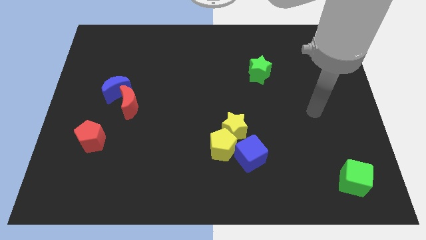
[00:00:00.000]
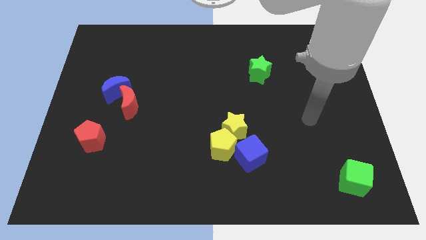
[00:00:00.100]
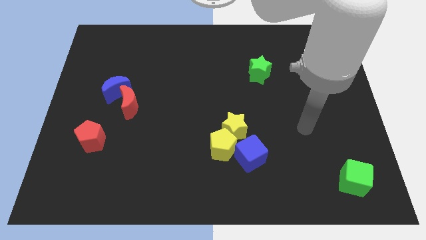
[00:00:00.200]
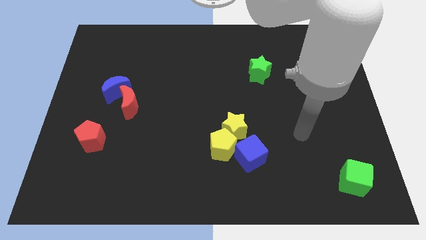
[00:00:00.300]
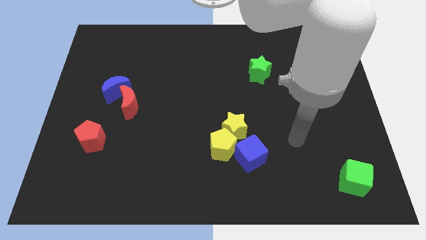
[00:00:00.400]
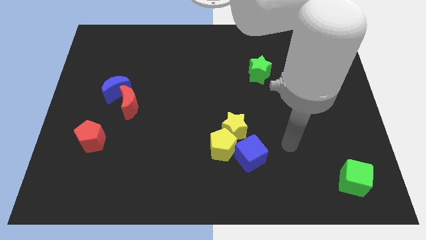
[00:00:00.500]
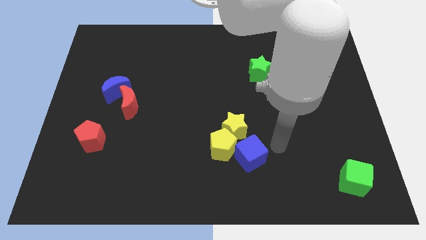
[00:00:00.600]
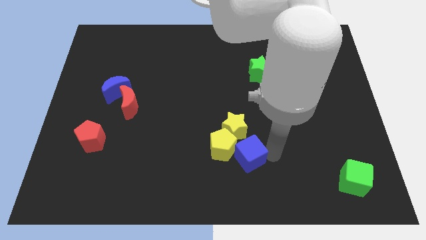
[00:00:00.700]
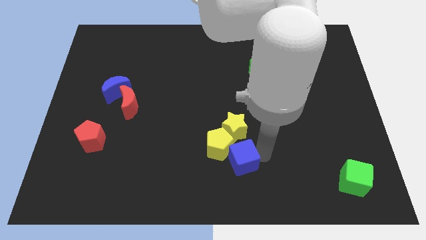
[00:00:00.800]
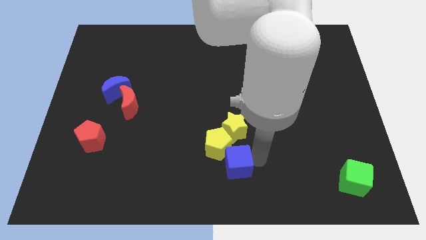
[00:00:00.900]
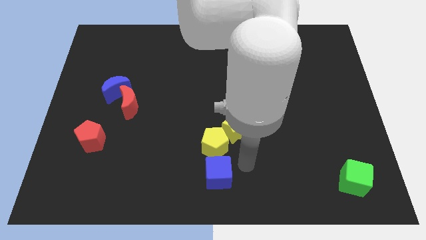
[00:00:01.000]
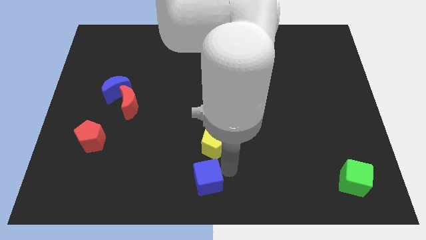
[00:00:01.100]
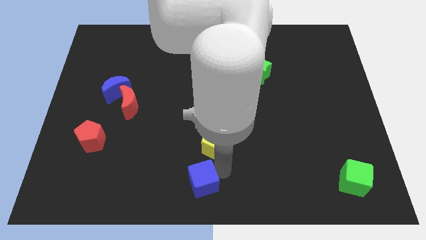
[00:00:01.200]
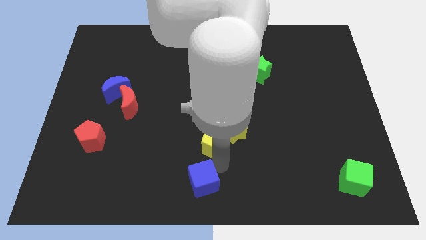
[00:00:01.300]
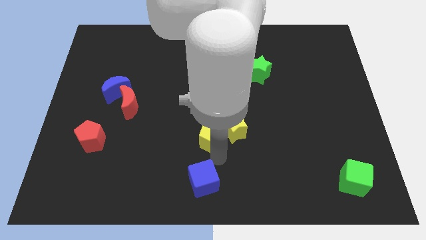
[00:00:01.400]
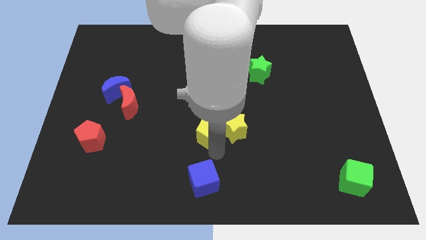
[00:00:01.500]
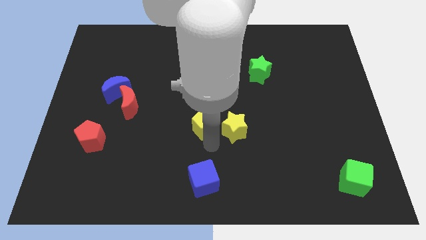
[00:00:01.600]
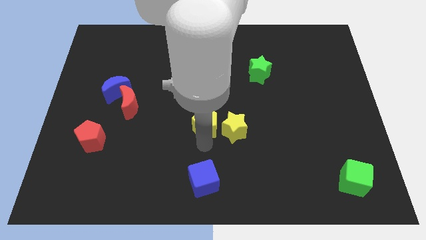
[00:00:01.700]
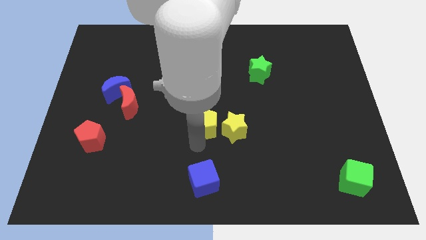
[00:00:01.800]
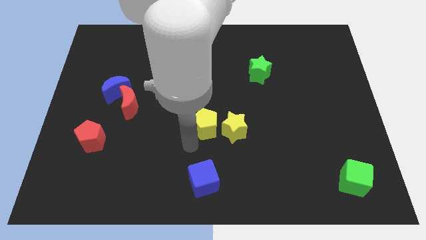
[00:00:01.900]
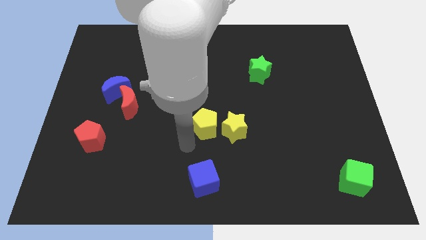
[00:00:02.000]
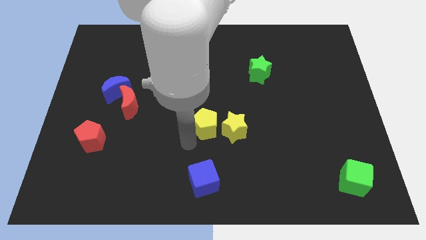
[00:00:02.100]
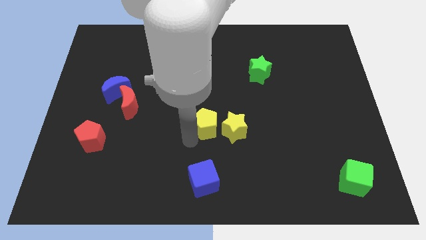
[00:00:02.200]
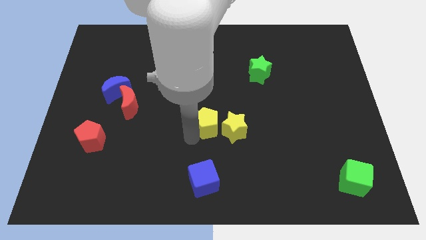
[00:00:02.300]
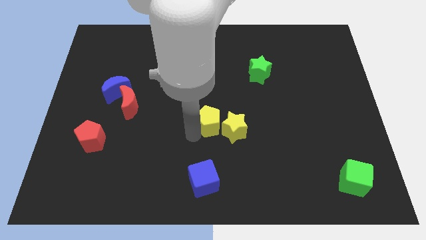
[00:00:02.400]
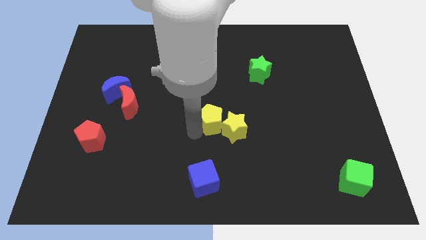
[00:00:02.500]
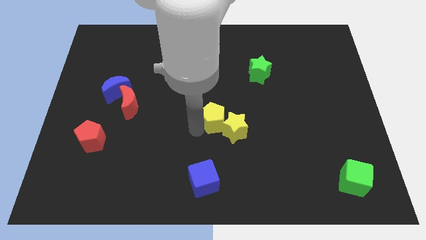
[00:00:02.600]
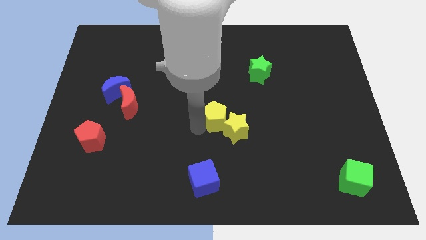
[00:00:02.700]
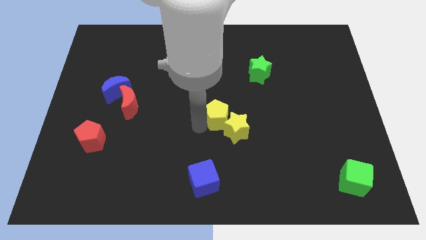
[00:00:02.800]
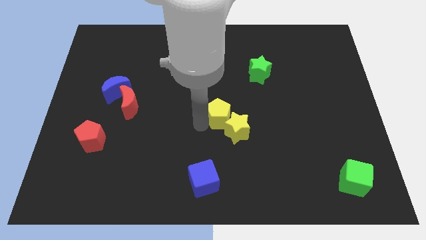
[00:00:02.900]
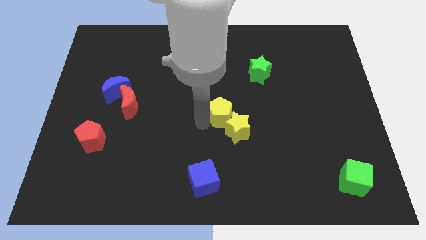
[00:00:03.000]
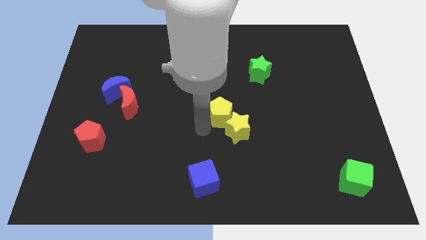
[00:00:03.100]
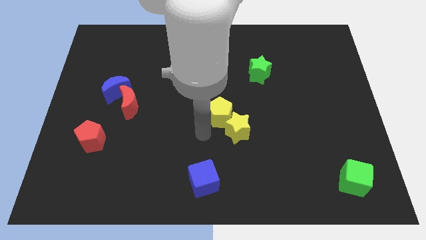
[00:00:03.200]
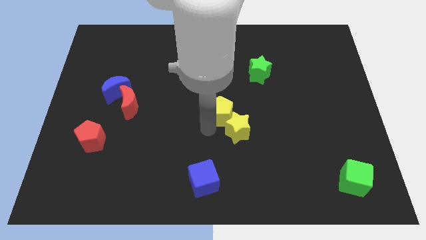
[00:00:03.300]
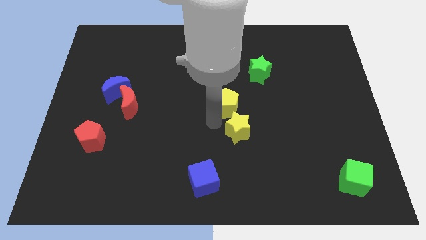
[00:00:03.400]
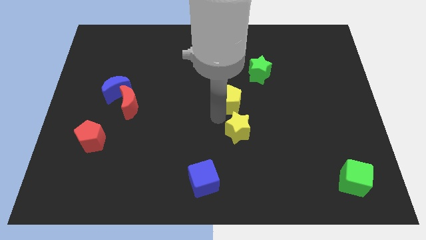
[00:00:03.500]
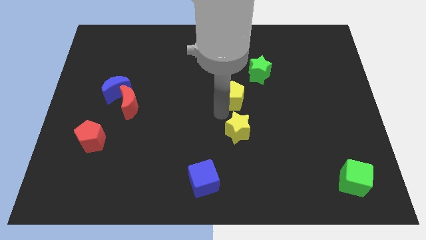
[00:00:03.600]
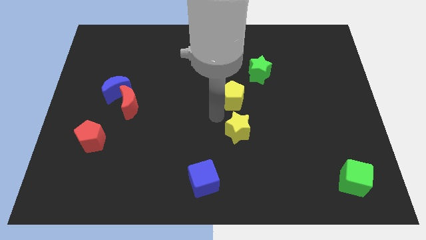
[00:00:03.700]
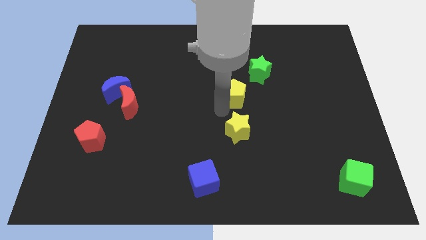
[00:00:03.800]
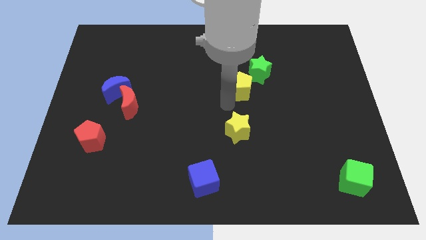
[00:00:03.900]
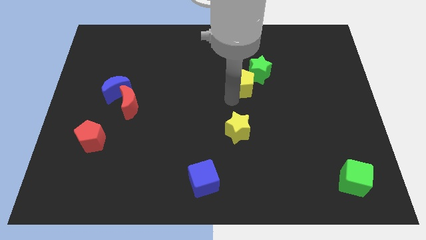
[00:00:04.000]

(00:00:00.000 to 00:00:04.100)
put the yellow pentagon next to the green star

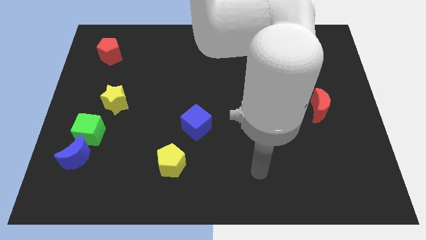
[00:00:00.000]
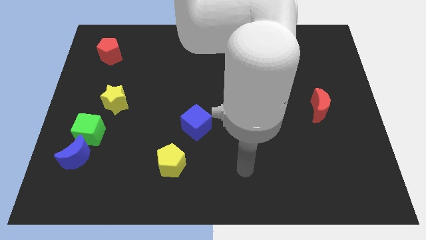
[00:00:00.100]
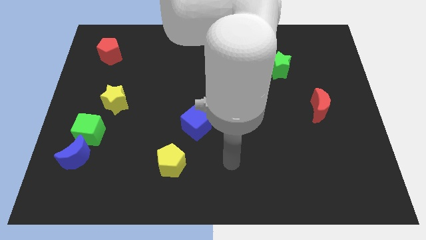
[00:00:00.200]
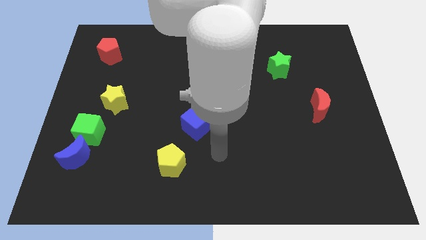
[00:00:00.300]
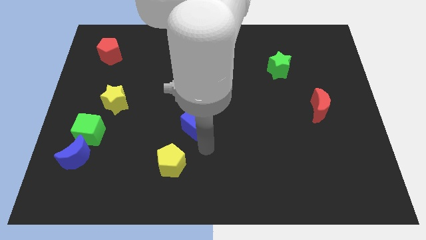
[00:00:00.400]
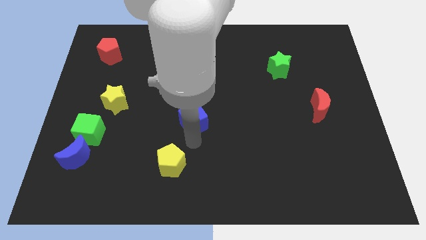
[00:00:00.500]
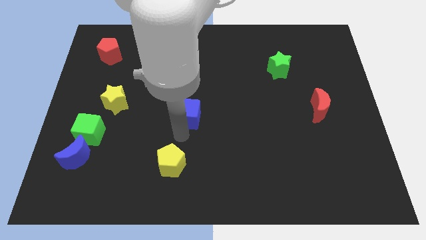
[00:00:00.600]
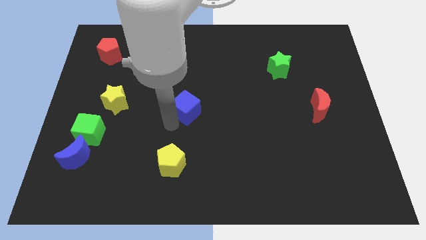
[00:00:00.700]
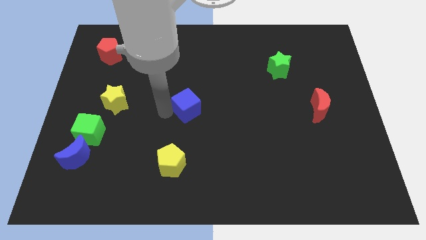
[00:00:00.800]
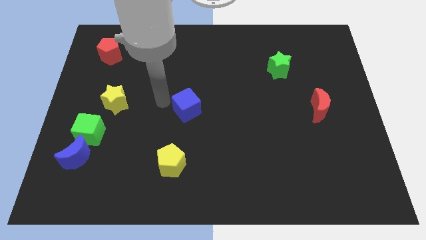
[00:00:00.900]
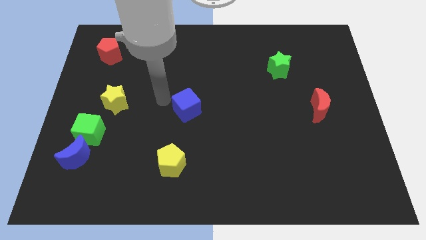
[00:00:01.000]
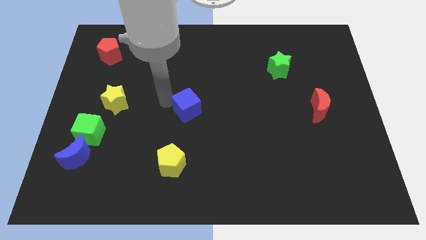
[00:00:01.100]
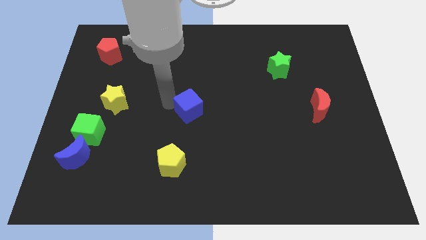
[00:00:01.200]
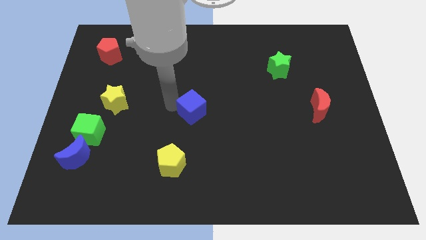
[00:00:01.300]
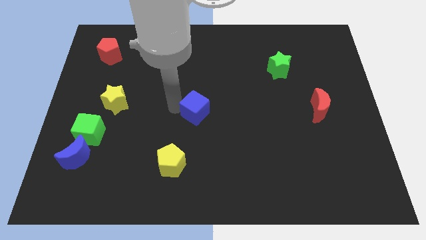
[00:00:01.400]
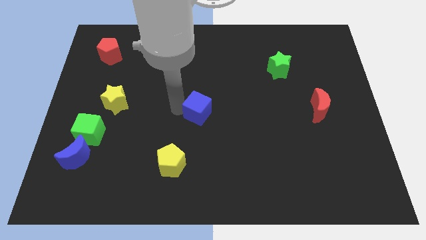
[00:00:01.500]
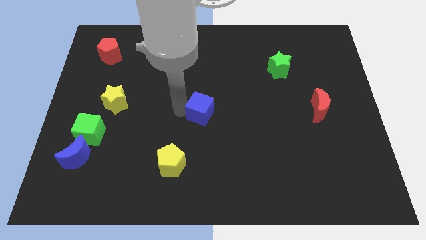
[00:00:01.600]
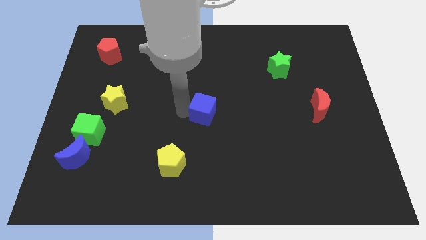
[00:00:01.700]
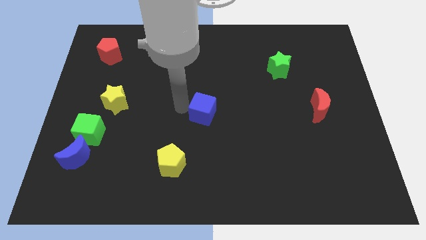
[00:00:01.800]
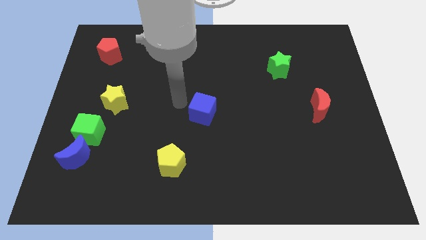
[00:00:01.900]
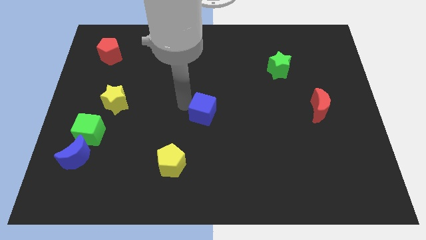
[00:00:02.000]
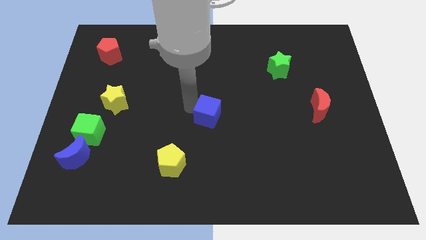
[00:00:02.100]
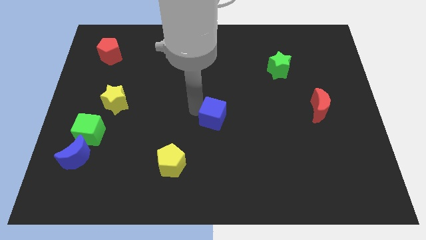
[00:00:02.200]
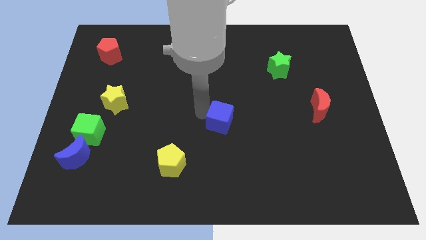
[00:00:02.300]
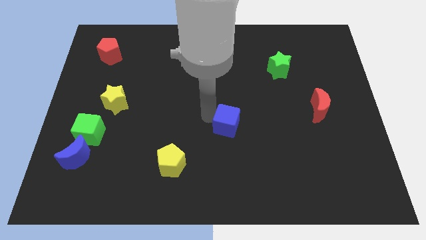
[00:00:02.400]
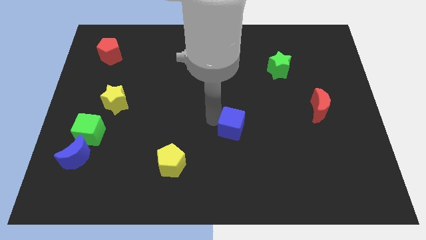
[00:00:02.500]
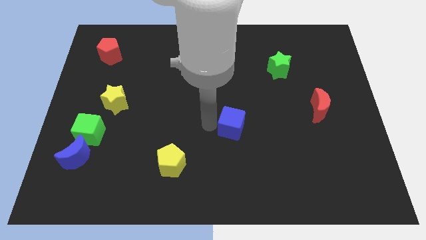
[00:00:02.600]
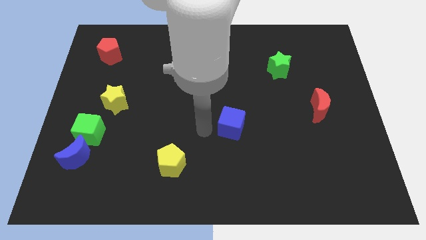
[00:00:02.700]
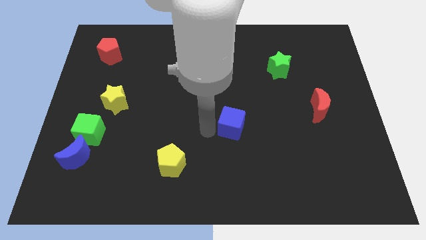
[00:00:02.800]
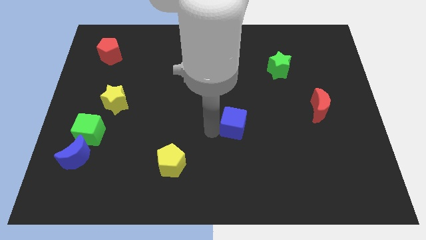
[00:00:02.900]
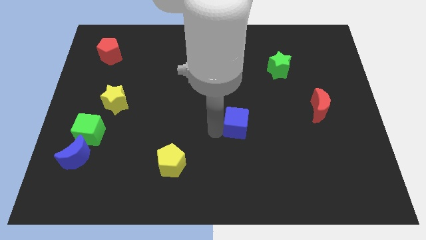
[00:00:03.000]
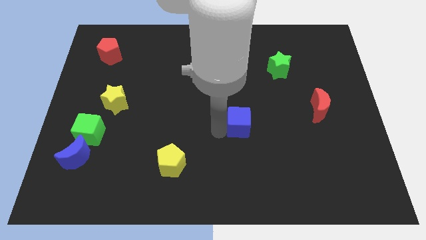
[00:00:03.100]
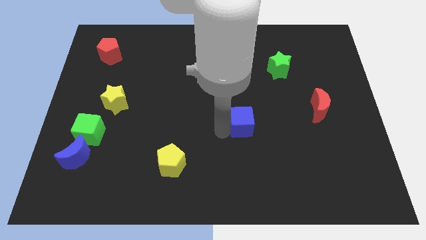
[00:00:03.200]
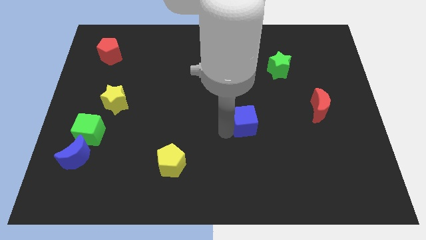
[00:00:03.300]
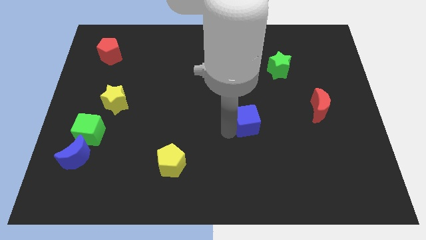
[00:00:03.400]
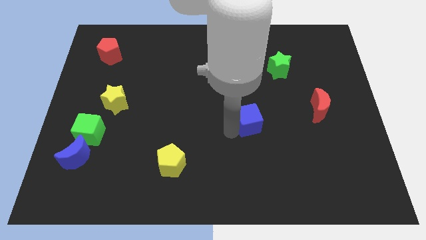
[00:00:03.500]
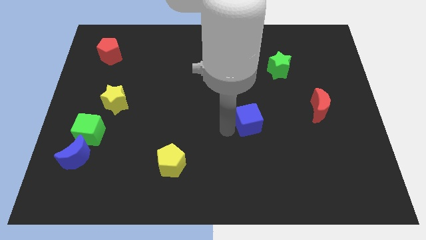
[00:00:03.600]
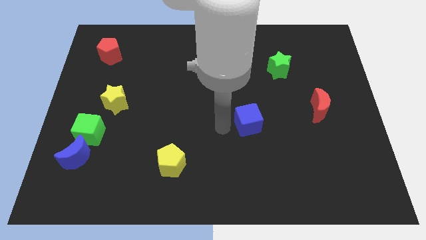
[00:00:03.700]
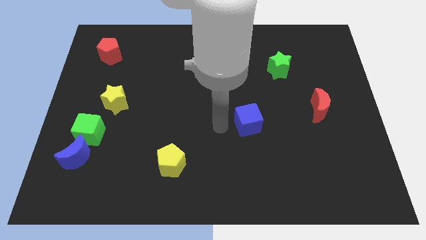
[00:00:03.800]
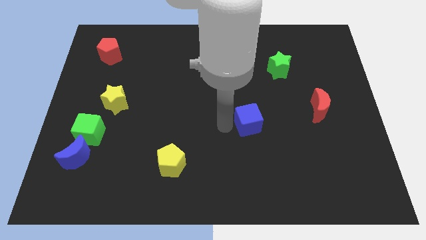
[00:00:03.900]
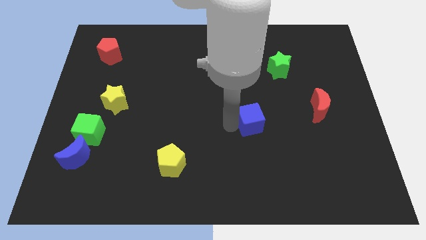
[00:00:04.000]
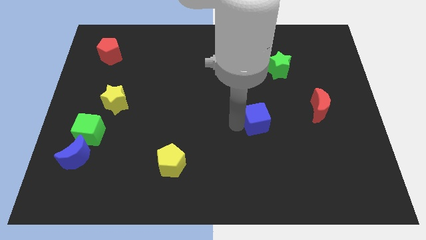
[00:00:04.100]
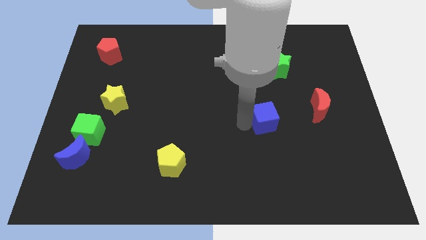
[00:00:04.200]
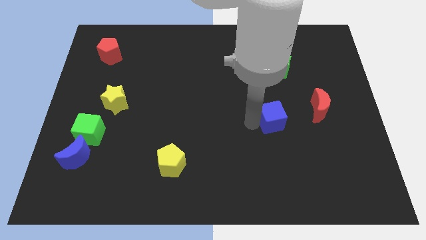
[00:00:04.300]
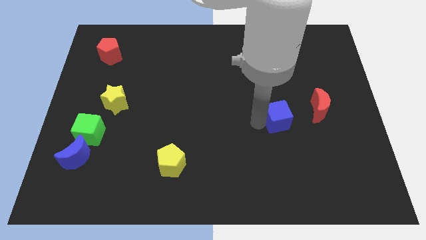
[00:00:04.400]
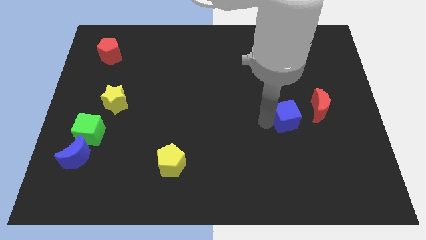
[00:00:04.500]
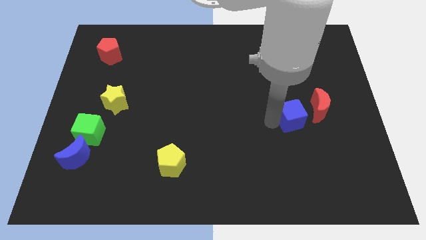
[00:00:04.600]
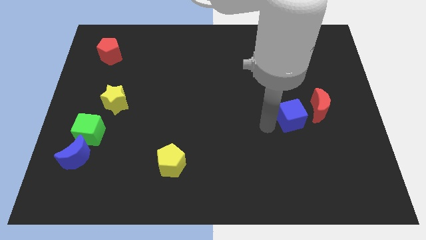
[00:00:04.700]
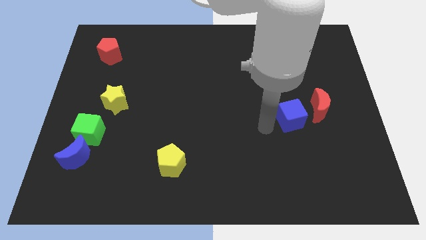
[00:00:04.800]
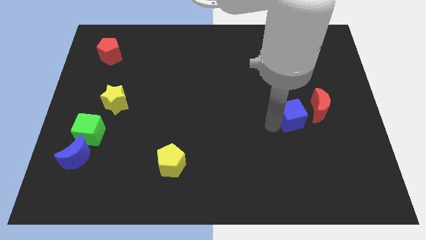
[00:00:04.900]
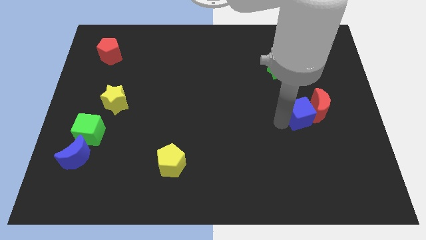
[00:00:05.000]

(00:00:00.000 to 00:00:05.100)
put the blue cube to the red moon
